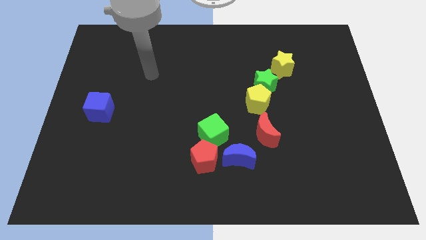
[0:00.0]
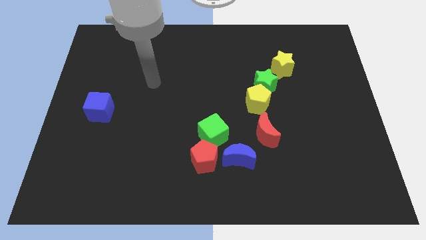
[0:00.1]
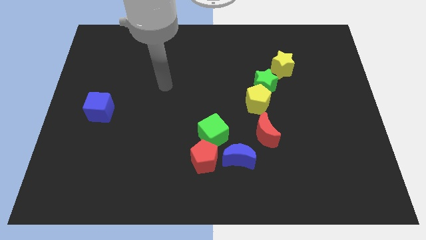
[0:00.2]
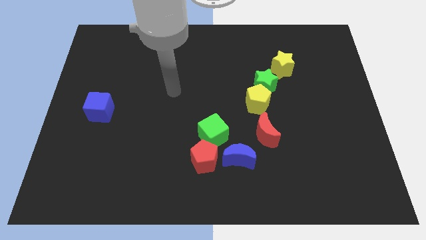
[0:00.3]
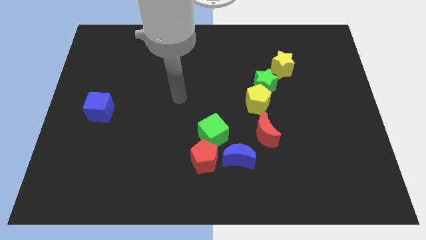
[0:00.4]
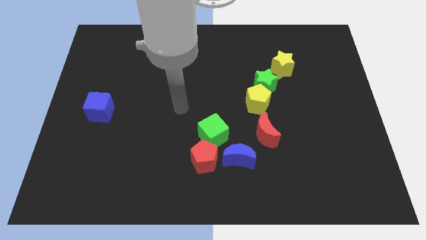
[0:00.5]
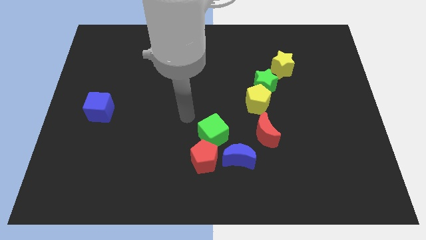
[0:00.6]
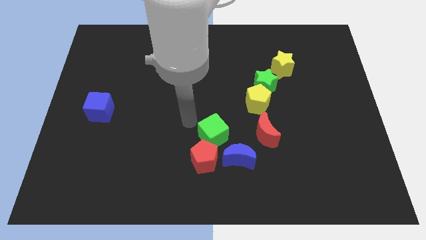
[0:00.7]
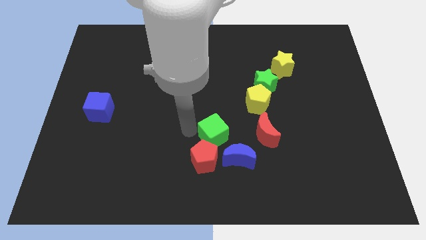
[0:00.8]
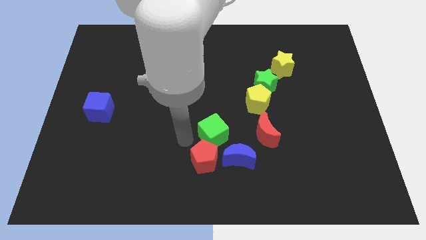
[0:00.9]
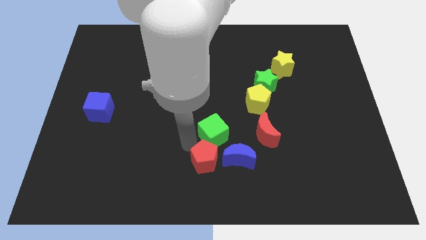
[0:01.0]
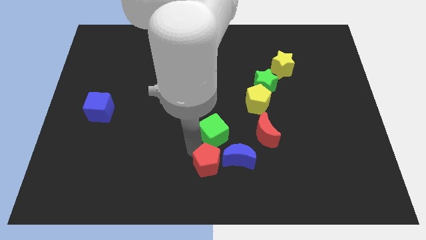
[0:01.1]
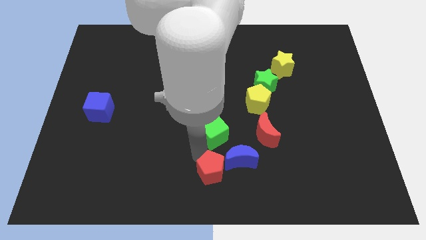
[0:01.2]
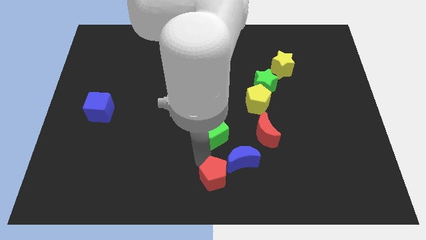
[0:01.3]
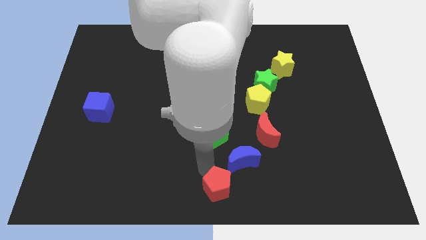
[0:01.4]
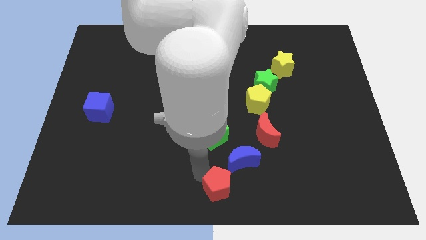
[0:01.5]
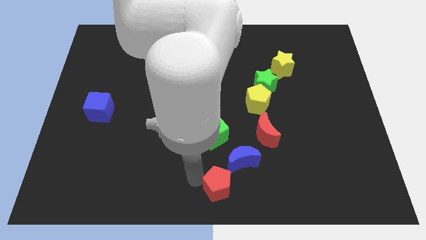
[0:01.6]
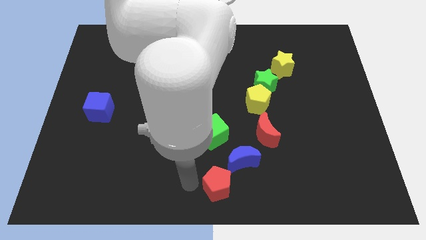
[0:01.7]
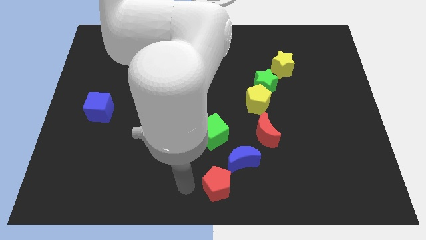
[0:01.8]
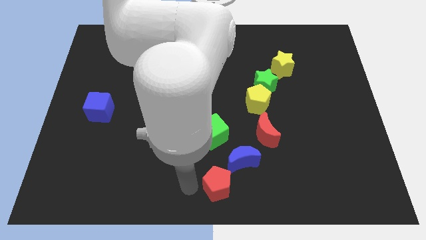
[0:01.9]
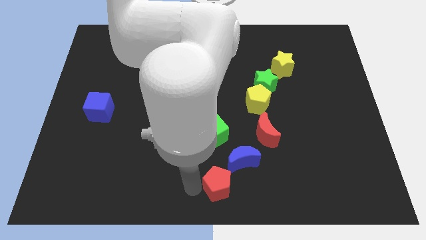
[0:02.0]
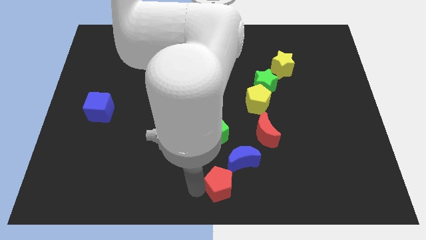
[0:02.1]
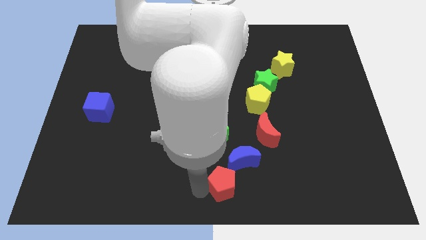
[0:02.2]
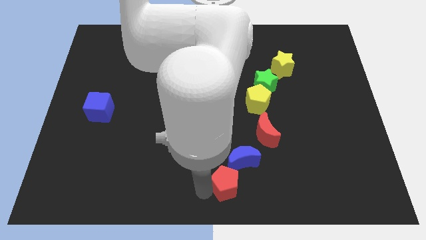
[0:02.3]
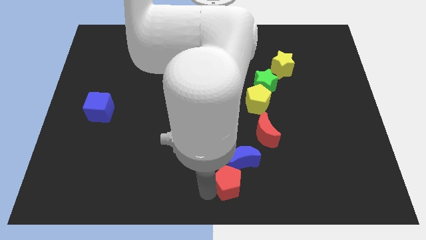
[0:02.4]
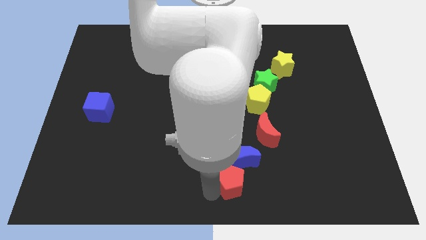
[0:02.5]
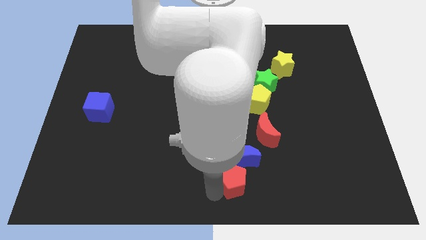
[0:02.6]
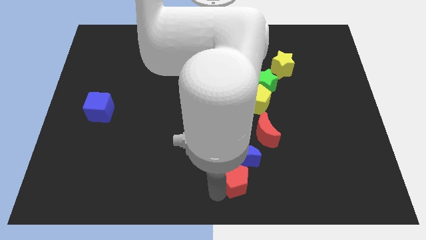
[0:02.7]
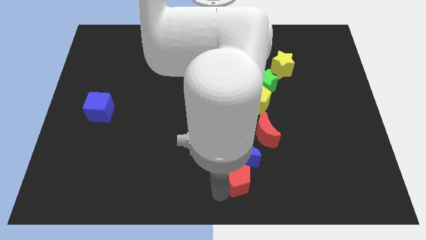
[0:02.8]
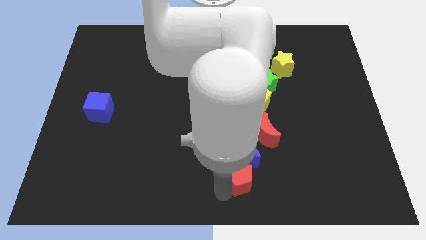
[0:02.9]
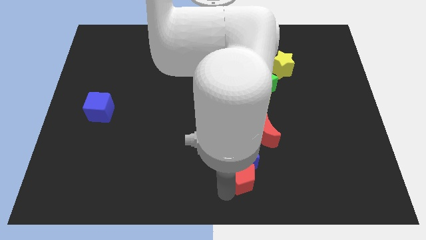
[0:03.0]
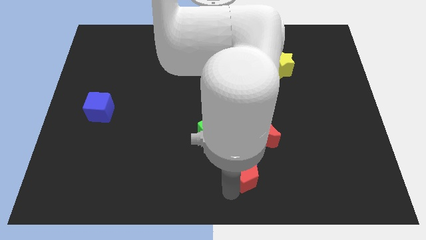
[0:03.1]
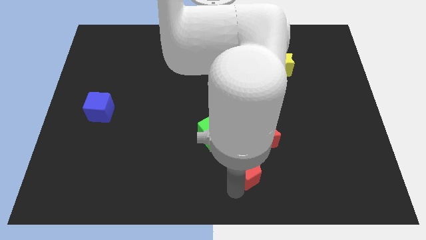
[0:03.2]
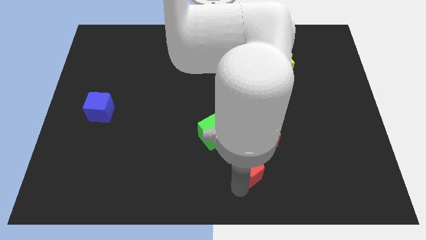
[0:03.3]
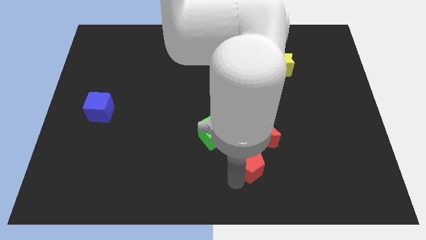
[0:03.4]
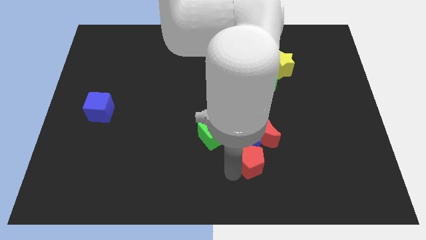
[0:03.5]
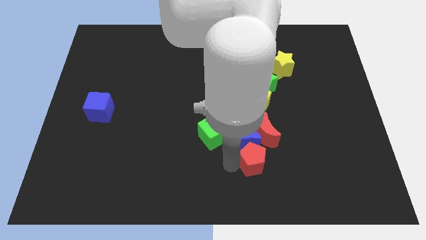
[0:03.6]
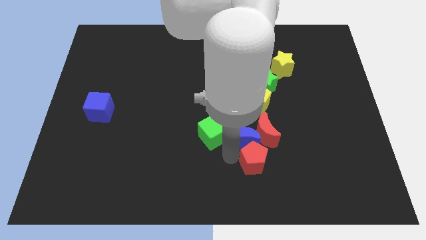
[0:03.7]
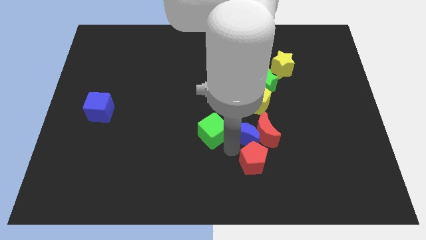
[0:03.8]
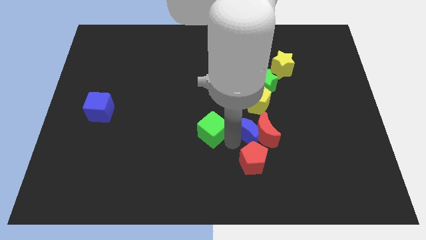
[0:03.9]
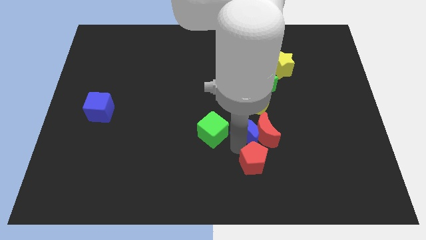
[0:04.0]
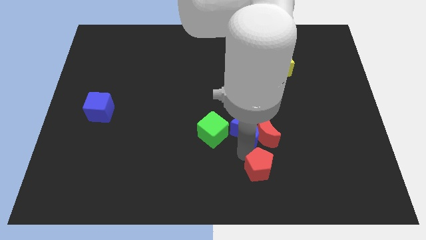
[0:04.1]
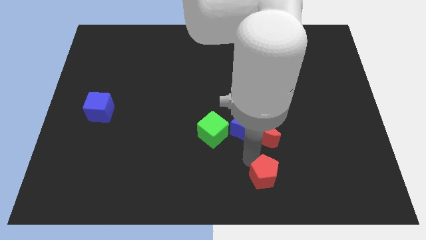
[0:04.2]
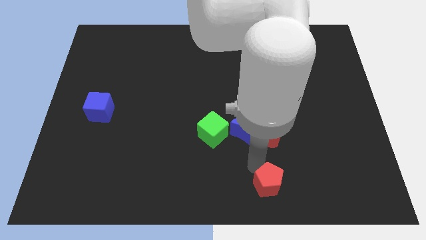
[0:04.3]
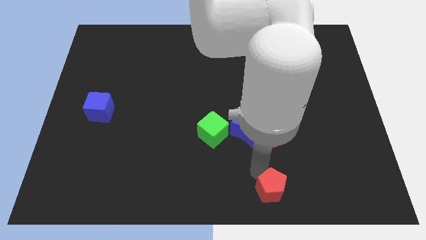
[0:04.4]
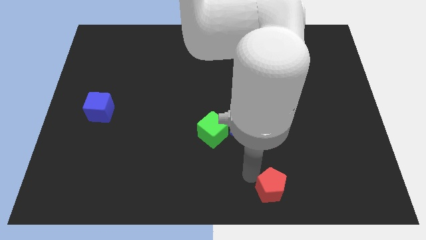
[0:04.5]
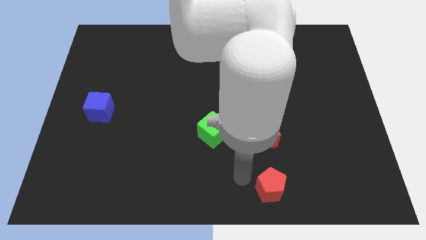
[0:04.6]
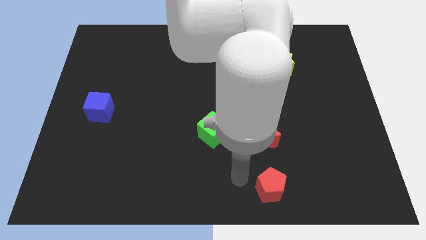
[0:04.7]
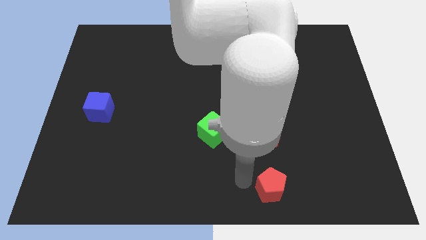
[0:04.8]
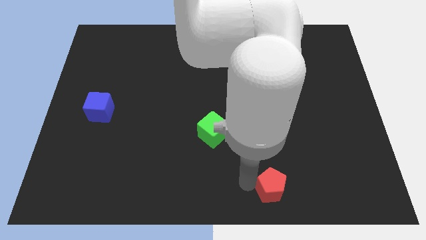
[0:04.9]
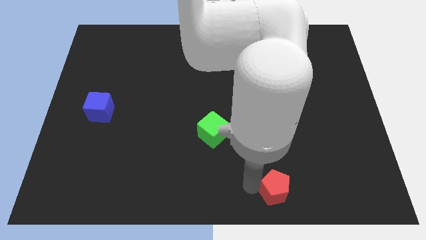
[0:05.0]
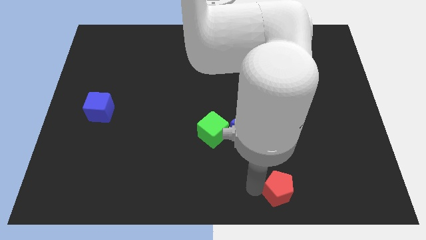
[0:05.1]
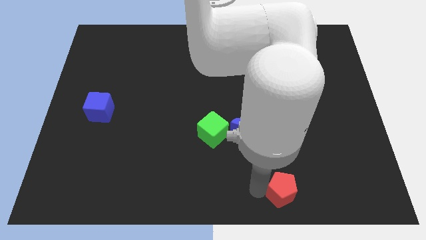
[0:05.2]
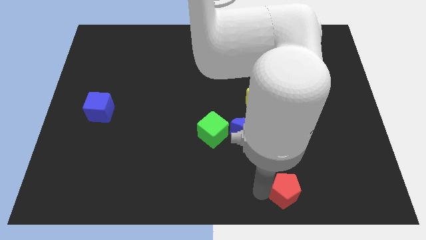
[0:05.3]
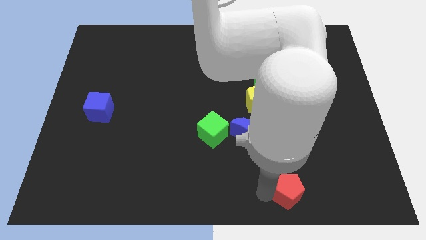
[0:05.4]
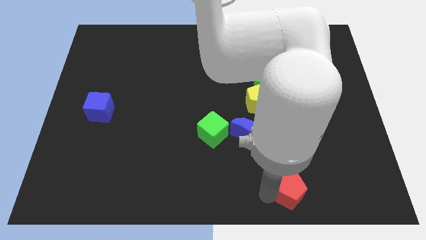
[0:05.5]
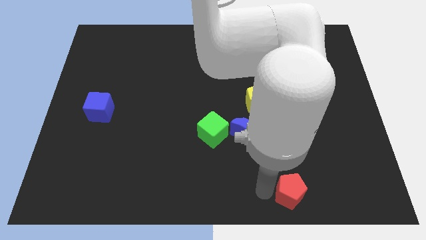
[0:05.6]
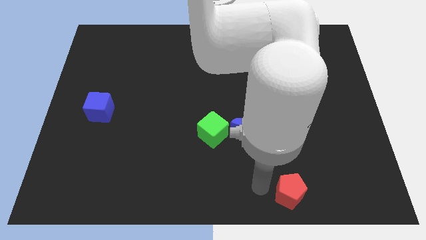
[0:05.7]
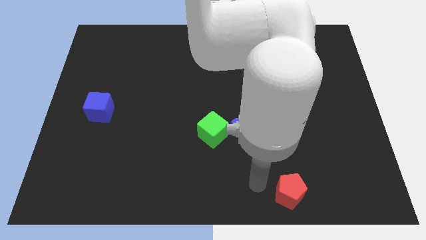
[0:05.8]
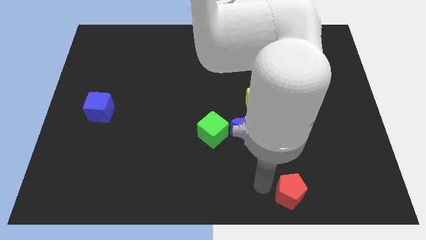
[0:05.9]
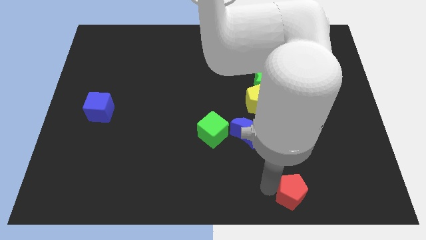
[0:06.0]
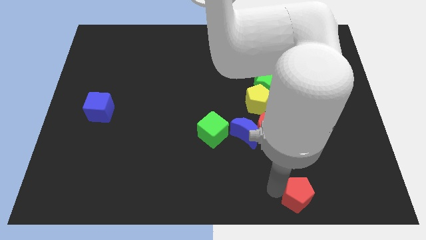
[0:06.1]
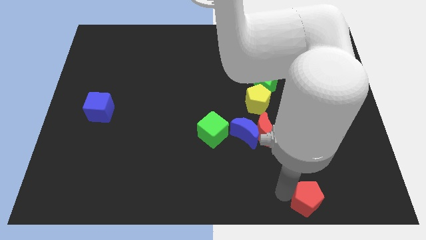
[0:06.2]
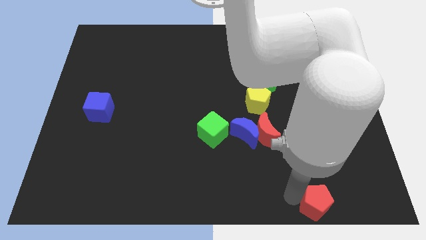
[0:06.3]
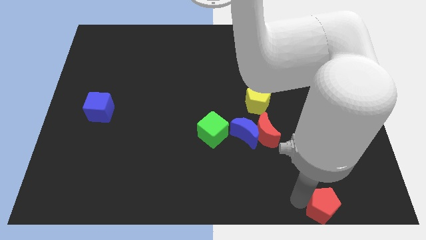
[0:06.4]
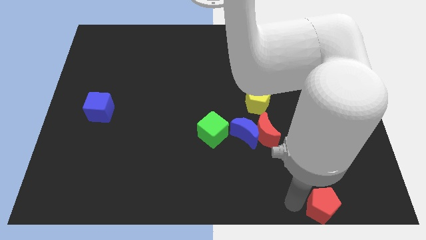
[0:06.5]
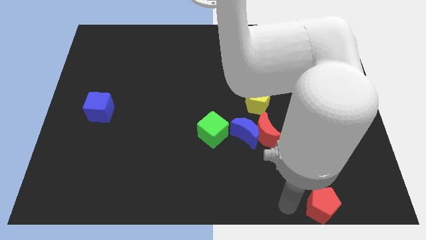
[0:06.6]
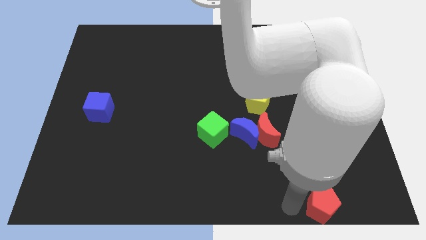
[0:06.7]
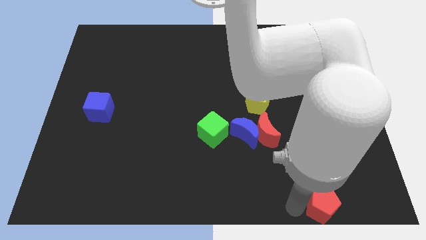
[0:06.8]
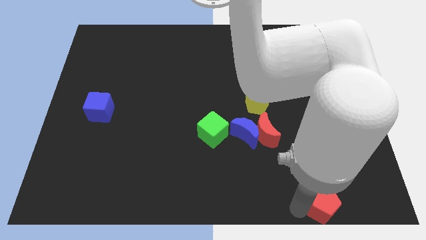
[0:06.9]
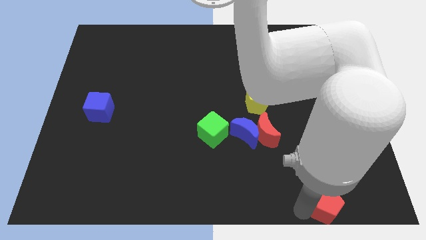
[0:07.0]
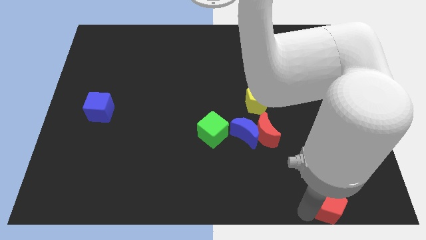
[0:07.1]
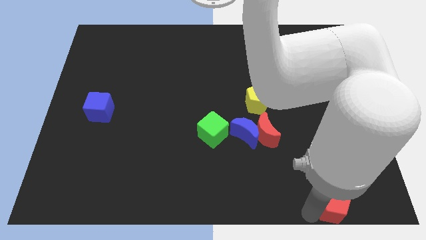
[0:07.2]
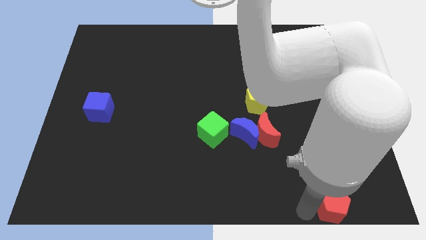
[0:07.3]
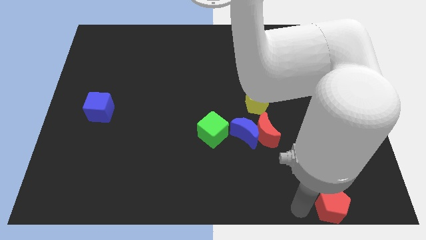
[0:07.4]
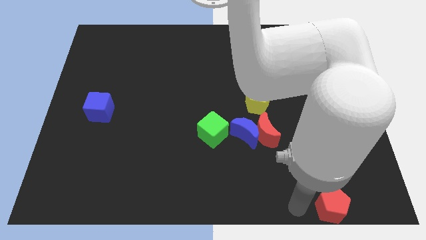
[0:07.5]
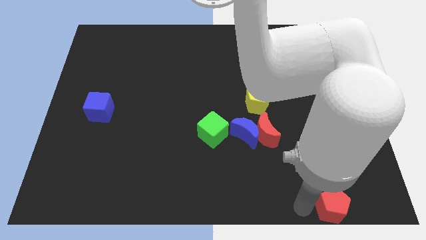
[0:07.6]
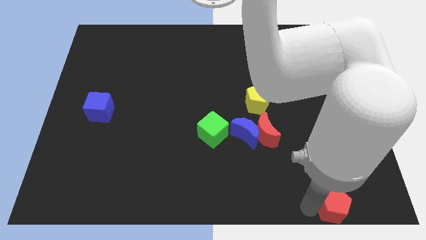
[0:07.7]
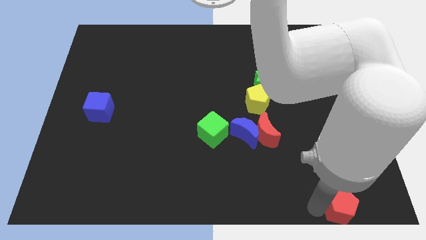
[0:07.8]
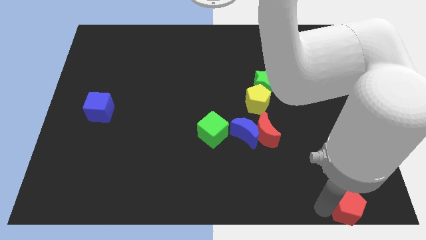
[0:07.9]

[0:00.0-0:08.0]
push the red pentagon to the bottom right corner
